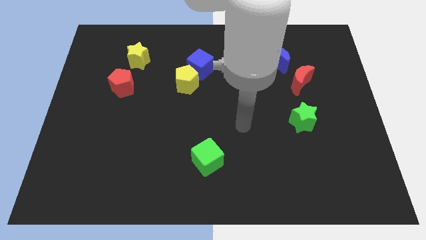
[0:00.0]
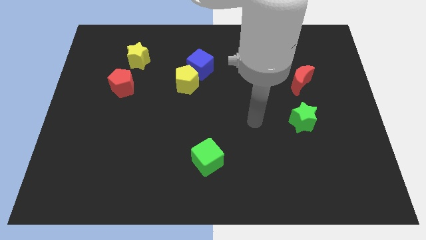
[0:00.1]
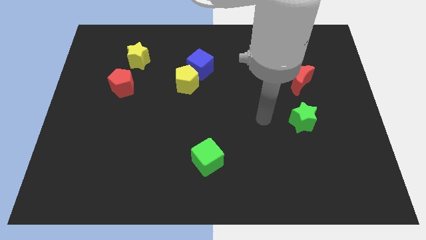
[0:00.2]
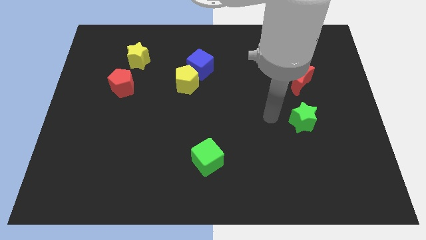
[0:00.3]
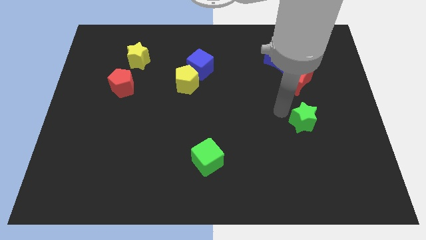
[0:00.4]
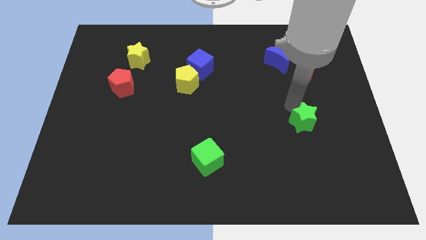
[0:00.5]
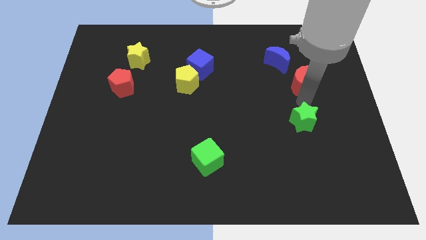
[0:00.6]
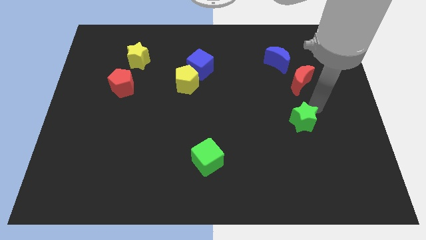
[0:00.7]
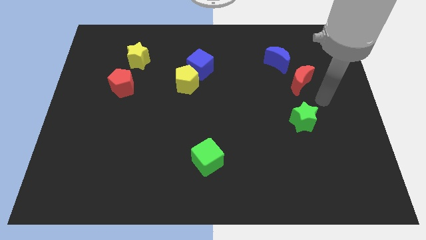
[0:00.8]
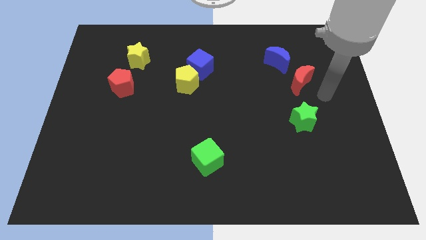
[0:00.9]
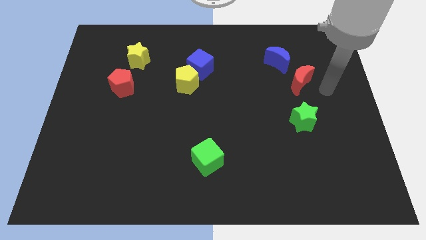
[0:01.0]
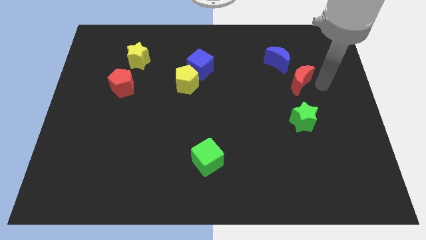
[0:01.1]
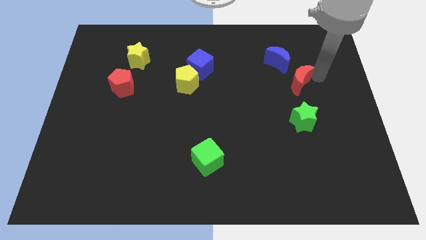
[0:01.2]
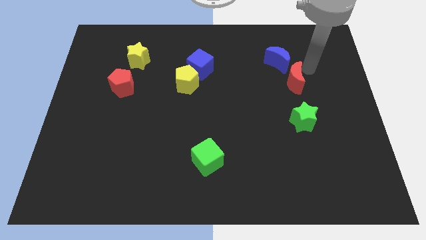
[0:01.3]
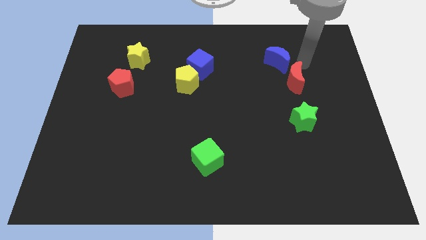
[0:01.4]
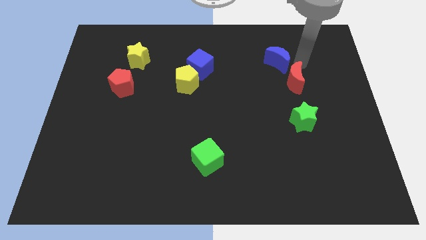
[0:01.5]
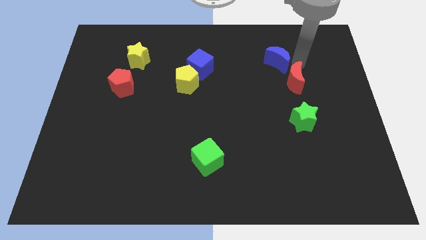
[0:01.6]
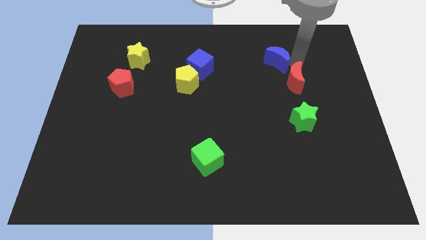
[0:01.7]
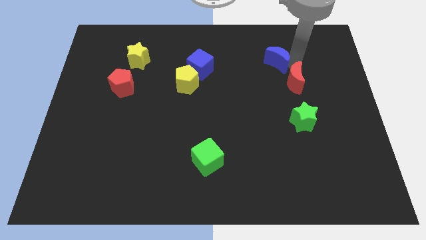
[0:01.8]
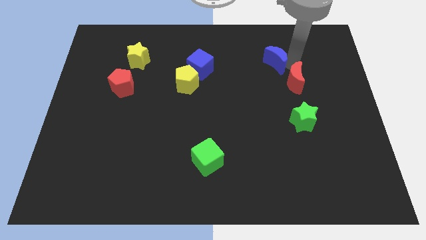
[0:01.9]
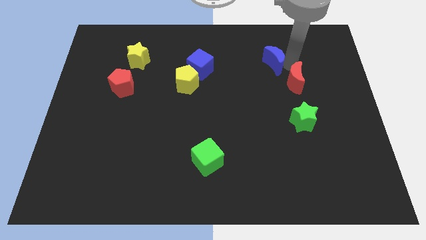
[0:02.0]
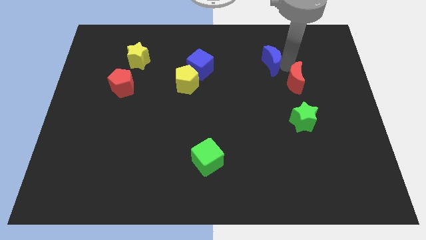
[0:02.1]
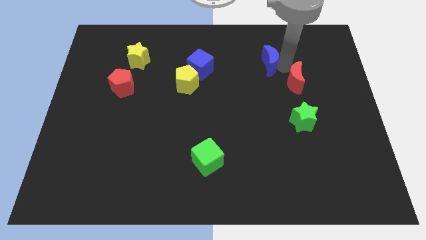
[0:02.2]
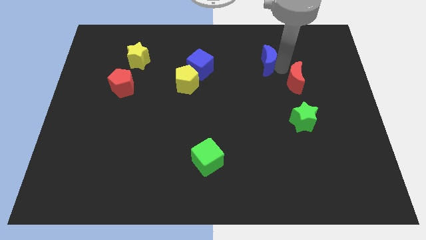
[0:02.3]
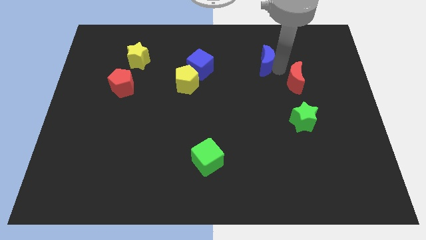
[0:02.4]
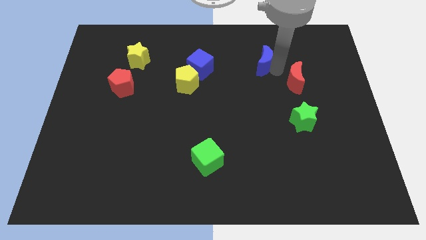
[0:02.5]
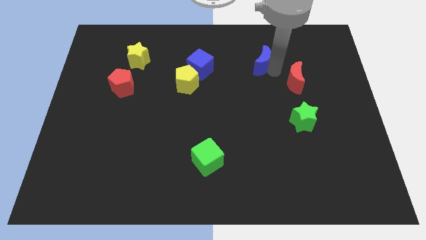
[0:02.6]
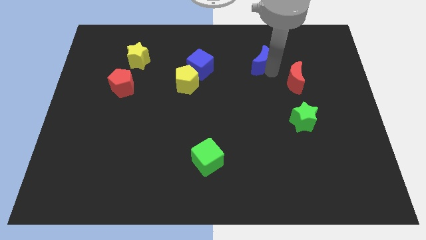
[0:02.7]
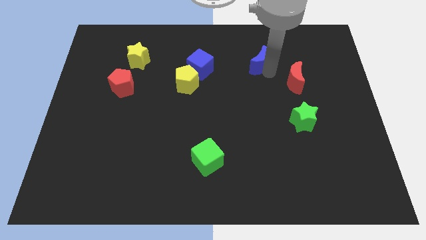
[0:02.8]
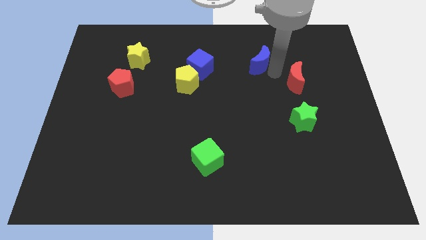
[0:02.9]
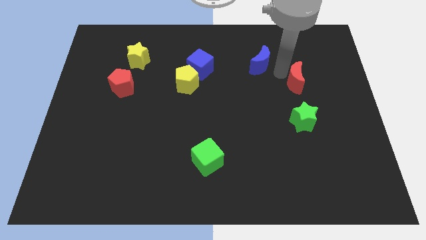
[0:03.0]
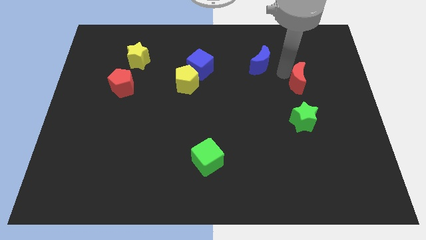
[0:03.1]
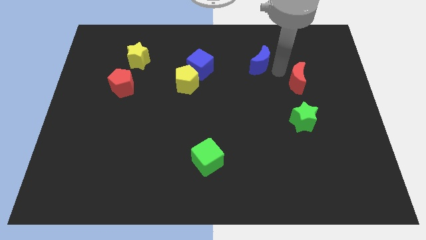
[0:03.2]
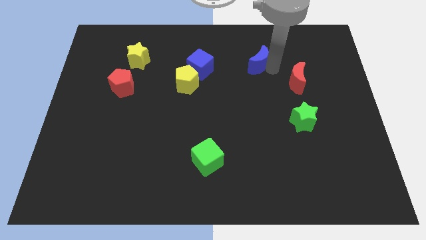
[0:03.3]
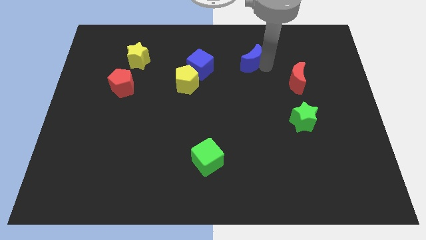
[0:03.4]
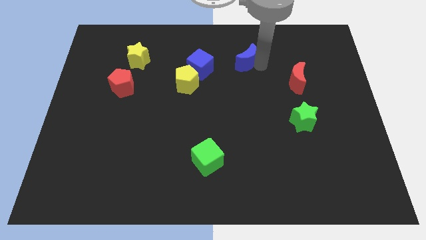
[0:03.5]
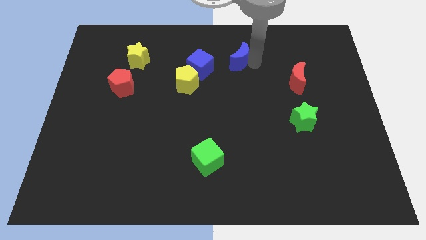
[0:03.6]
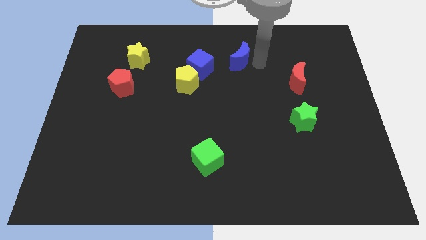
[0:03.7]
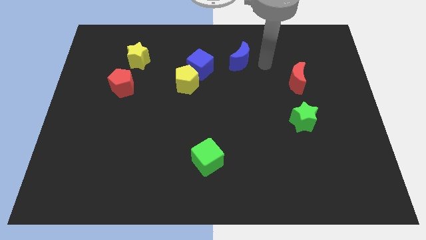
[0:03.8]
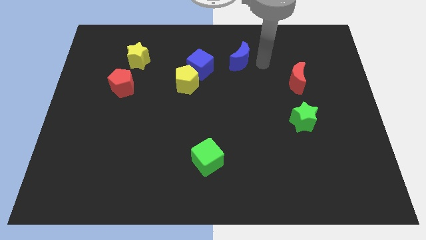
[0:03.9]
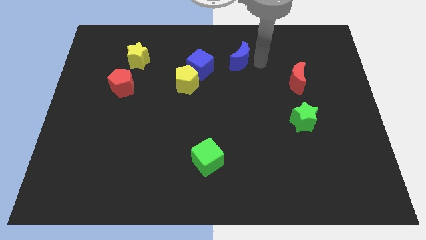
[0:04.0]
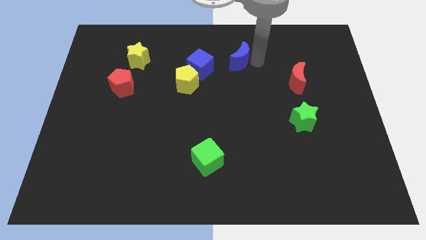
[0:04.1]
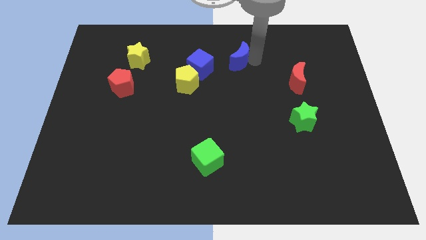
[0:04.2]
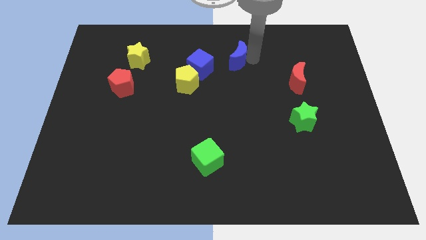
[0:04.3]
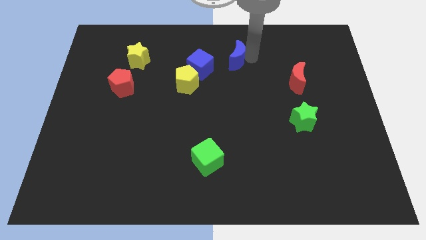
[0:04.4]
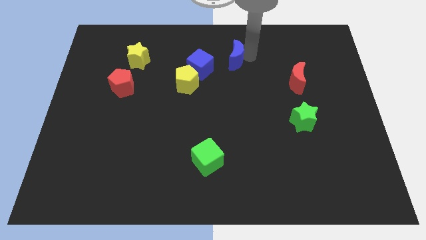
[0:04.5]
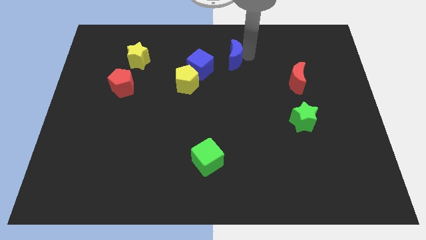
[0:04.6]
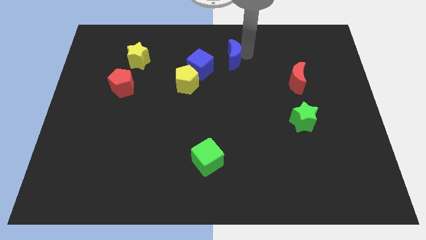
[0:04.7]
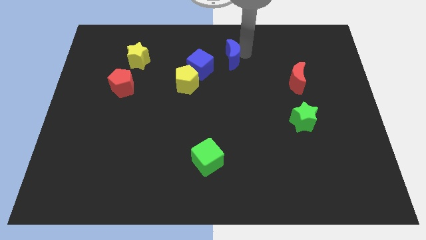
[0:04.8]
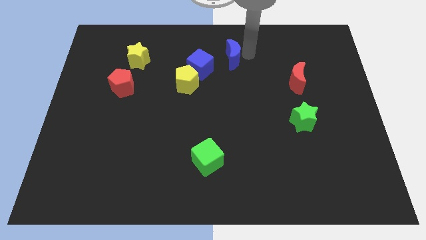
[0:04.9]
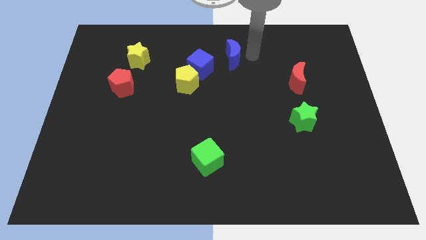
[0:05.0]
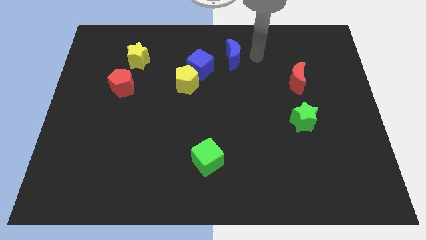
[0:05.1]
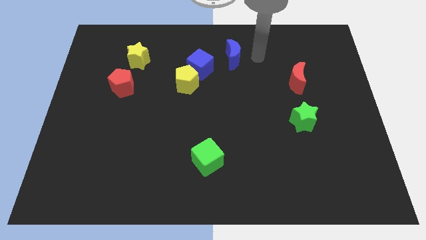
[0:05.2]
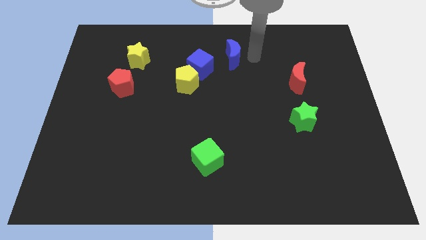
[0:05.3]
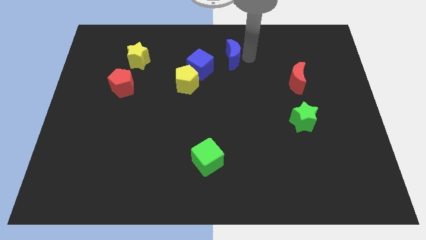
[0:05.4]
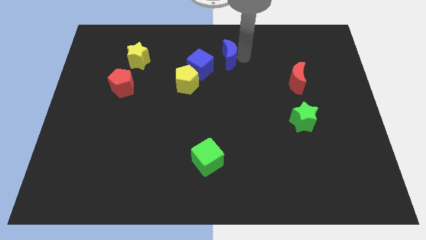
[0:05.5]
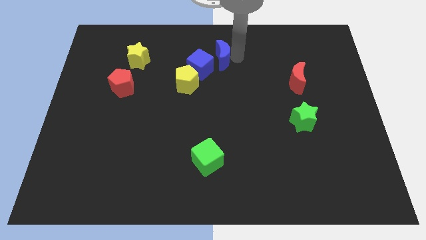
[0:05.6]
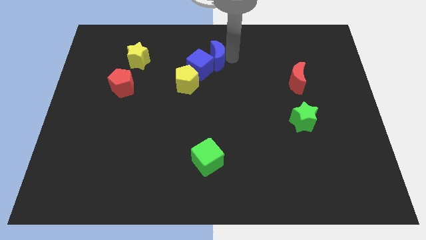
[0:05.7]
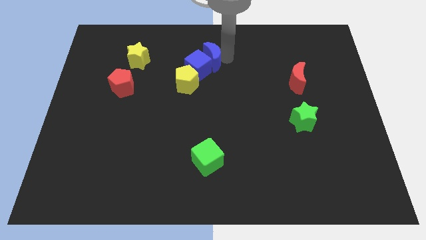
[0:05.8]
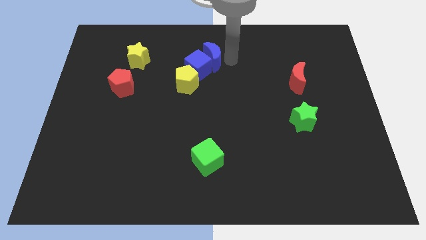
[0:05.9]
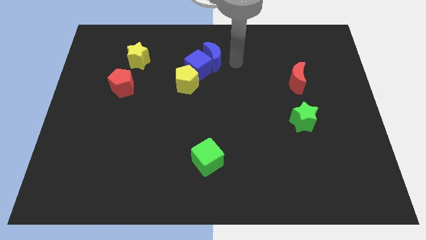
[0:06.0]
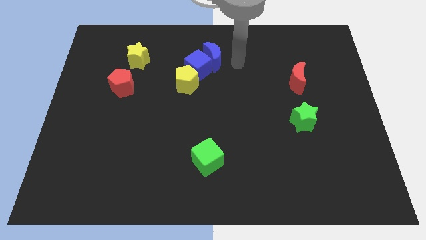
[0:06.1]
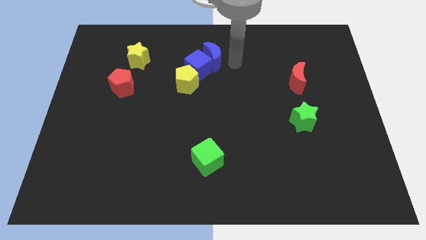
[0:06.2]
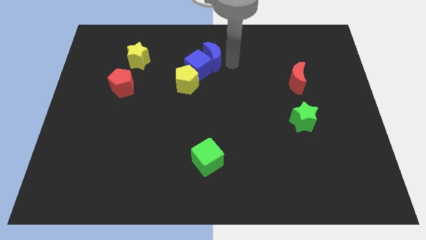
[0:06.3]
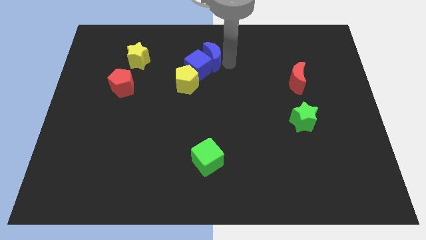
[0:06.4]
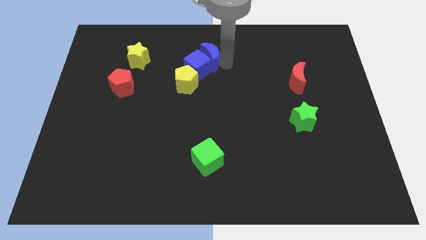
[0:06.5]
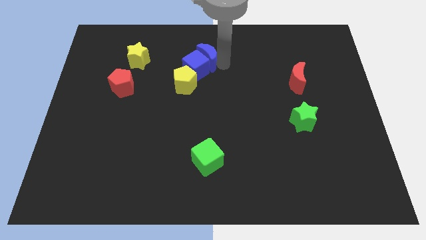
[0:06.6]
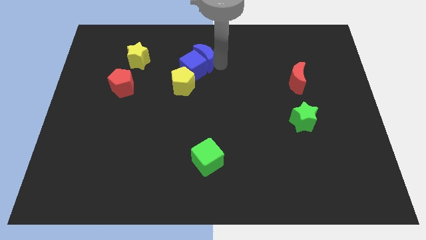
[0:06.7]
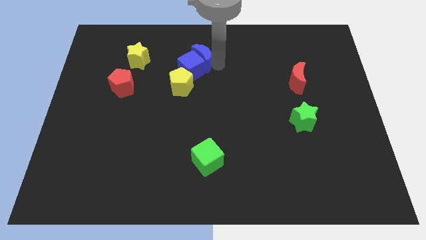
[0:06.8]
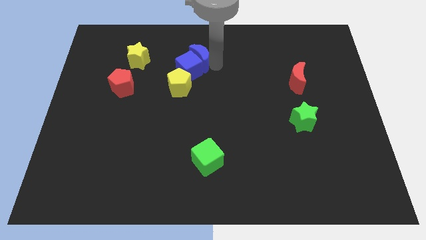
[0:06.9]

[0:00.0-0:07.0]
push the blue moon to the left

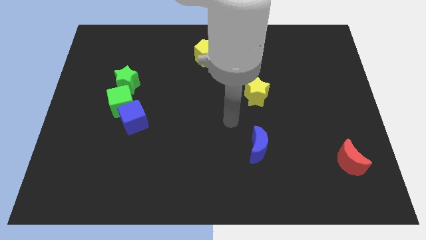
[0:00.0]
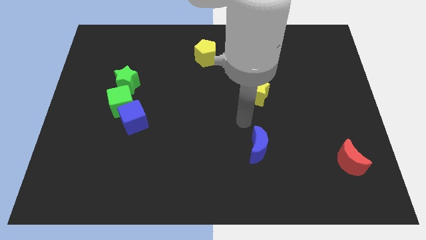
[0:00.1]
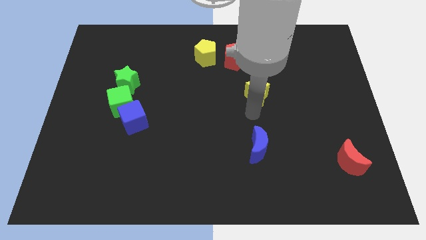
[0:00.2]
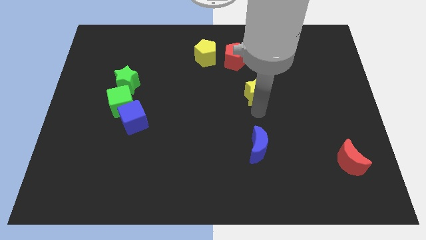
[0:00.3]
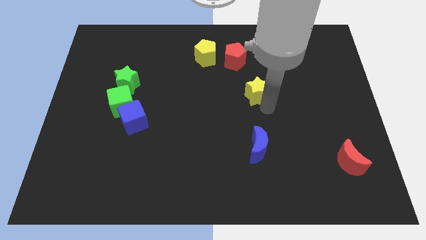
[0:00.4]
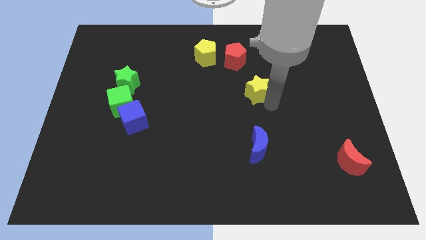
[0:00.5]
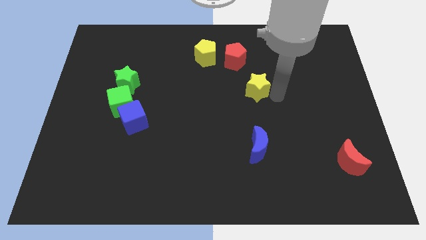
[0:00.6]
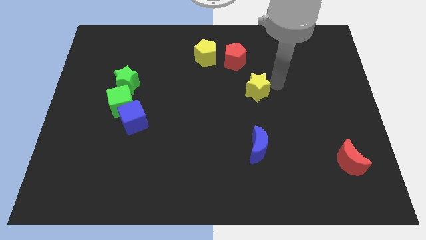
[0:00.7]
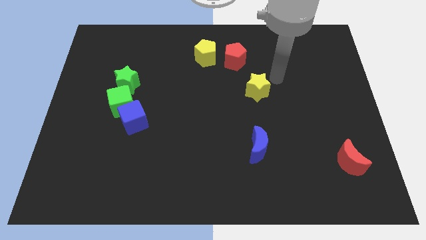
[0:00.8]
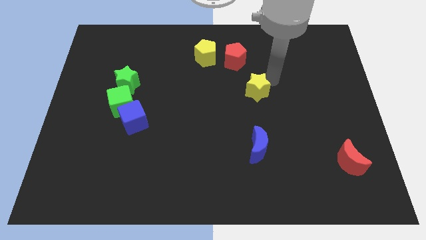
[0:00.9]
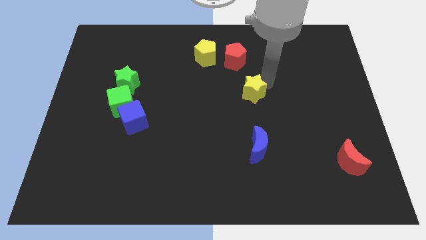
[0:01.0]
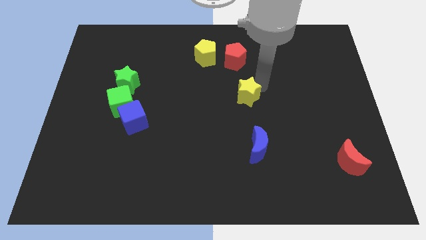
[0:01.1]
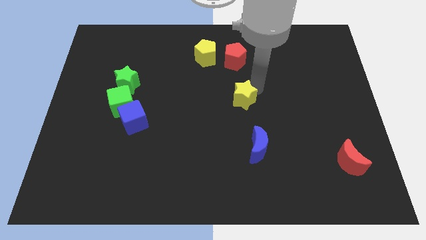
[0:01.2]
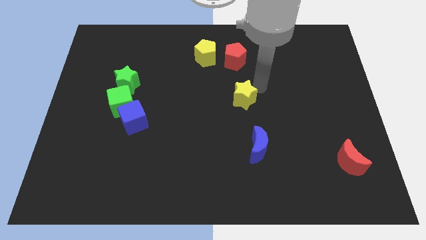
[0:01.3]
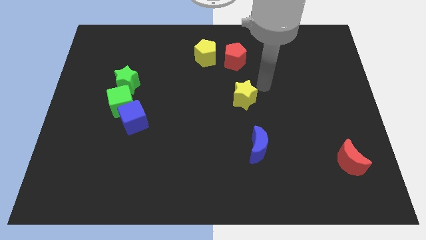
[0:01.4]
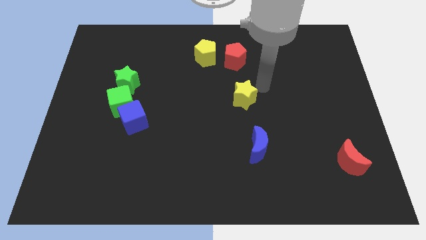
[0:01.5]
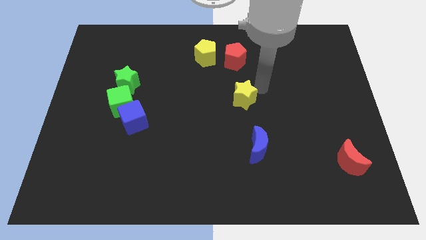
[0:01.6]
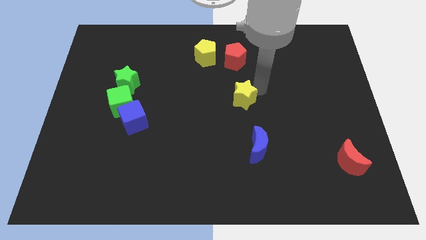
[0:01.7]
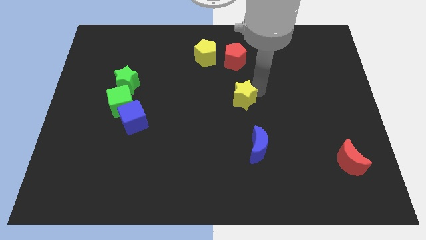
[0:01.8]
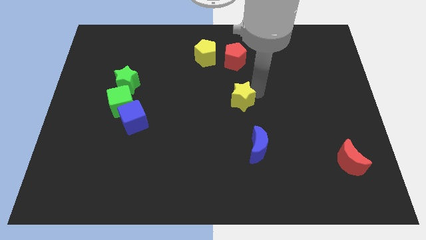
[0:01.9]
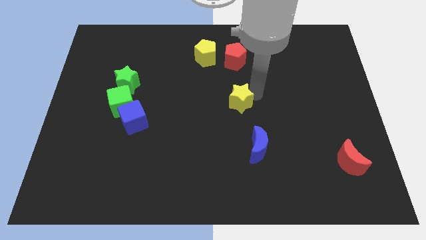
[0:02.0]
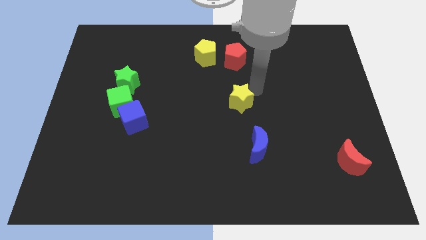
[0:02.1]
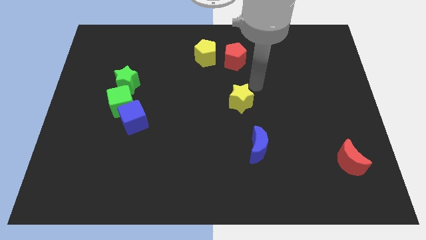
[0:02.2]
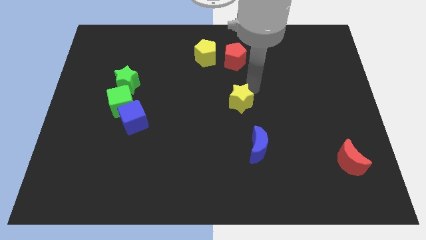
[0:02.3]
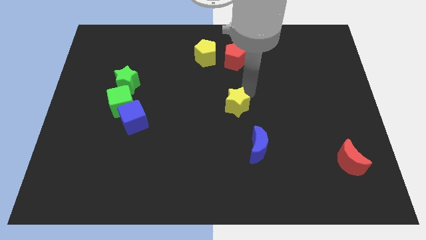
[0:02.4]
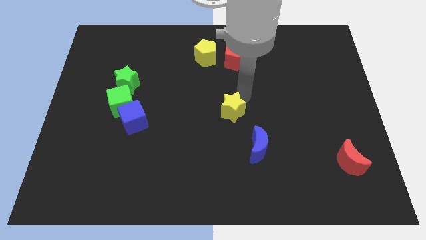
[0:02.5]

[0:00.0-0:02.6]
slide the yellow star downwards and left slightly
